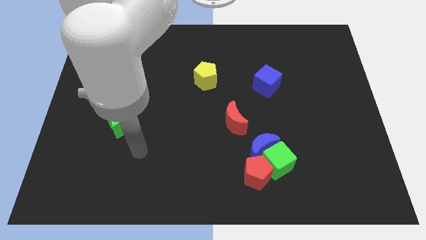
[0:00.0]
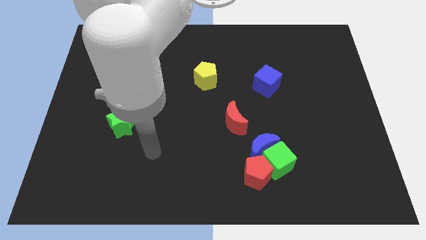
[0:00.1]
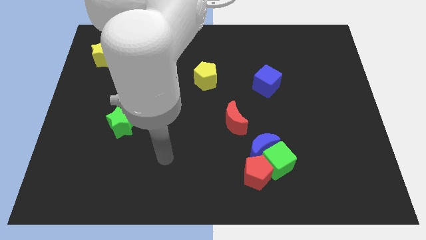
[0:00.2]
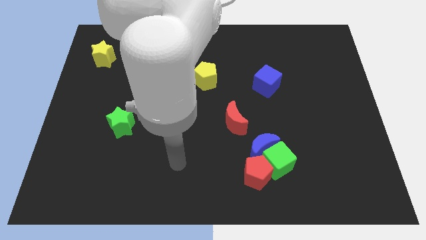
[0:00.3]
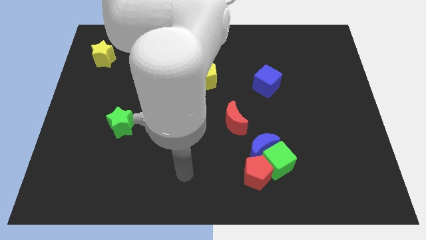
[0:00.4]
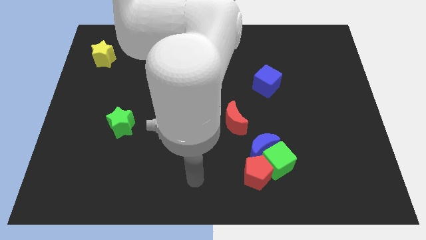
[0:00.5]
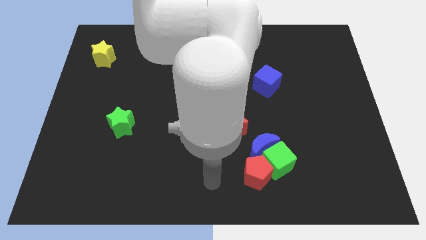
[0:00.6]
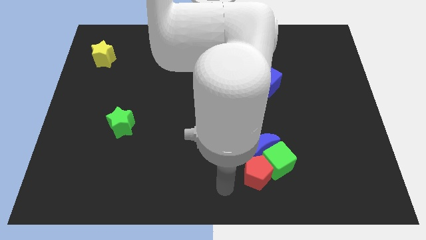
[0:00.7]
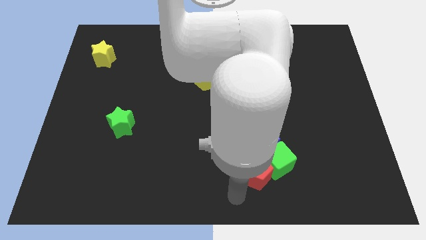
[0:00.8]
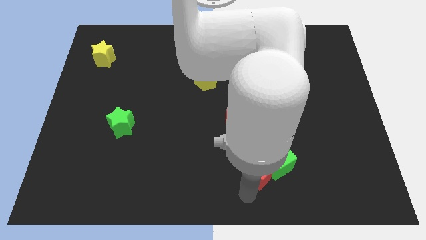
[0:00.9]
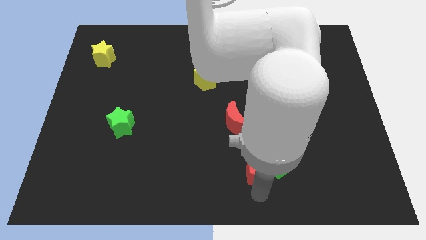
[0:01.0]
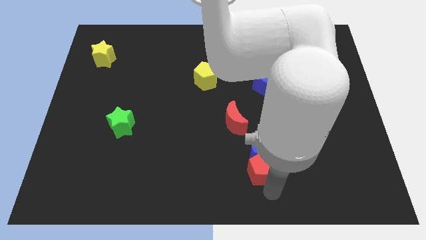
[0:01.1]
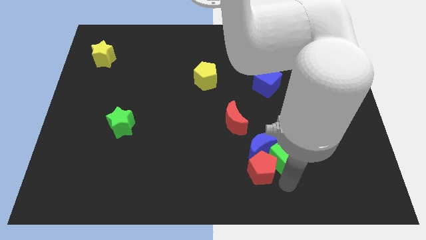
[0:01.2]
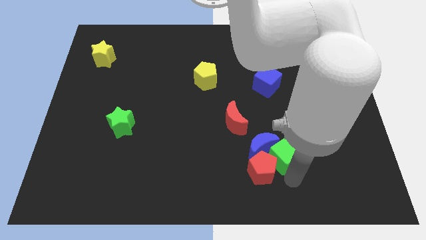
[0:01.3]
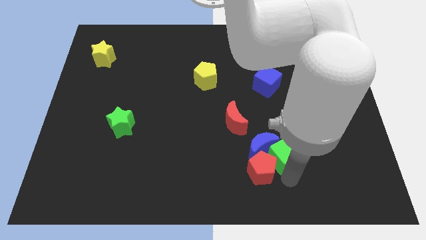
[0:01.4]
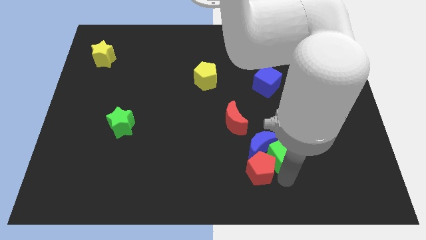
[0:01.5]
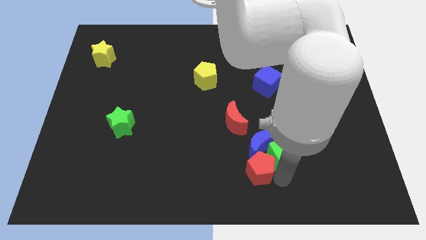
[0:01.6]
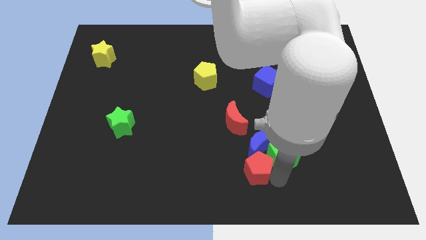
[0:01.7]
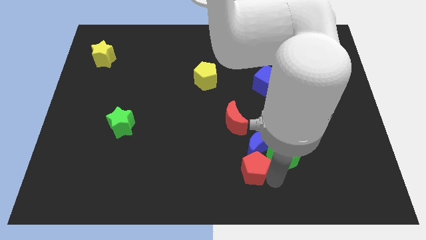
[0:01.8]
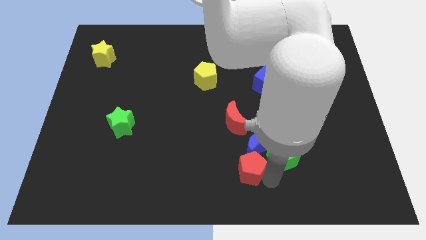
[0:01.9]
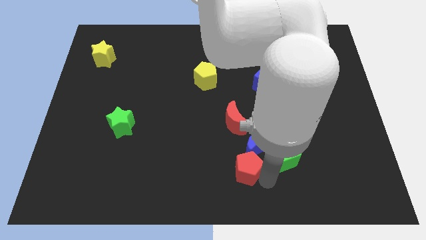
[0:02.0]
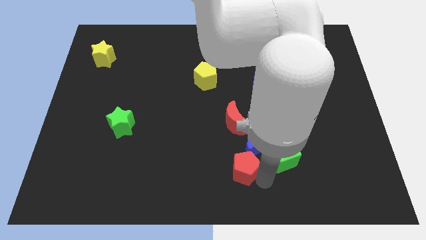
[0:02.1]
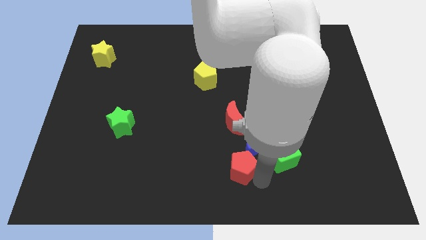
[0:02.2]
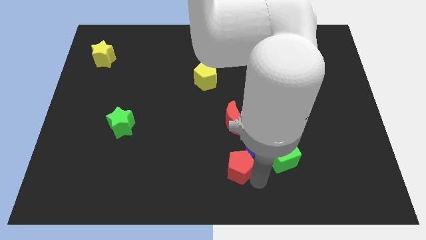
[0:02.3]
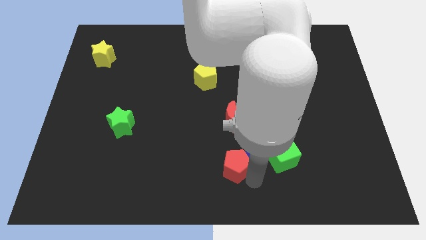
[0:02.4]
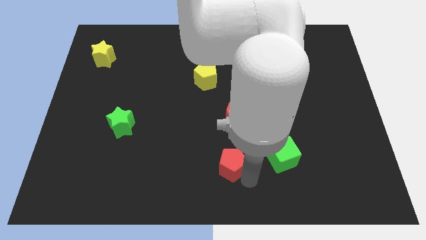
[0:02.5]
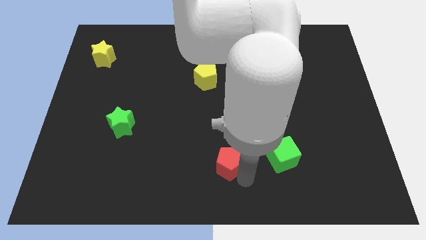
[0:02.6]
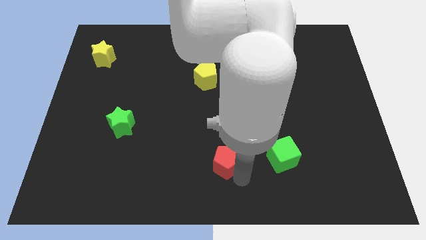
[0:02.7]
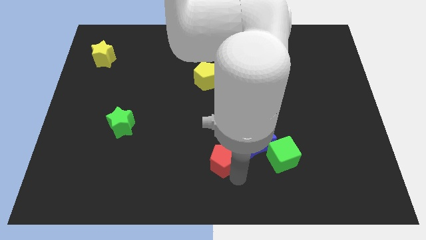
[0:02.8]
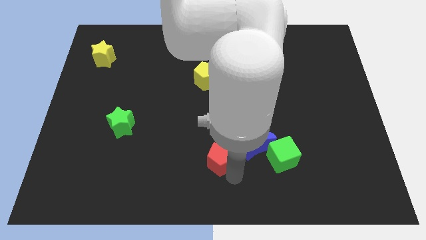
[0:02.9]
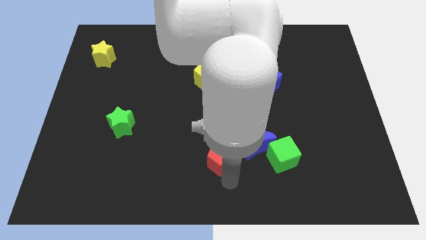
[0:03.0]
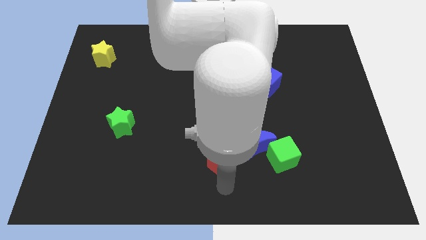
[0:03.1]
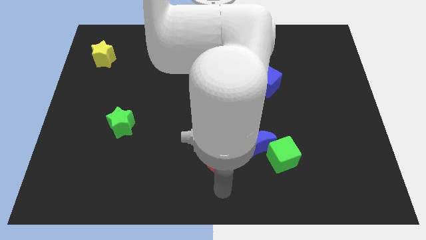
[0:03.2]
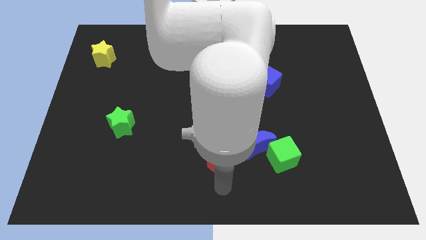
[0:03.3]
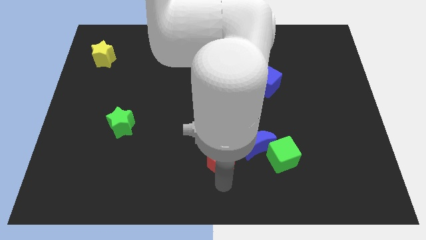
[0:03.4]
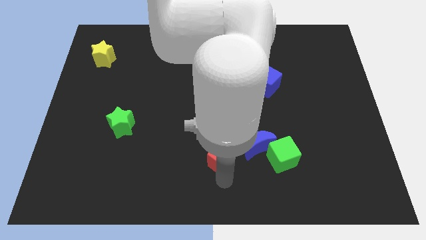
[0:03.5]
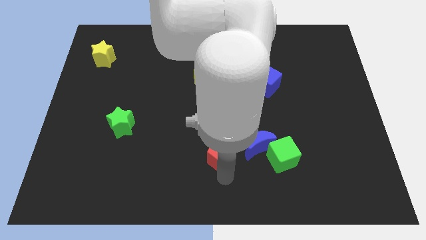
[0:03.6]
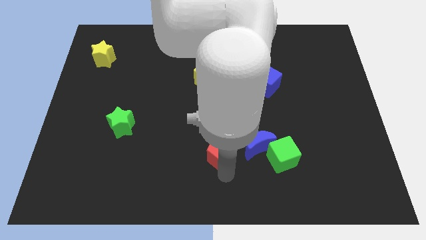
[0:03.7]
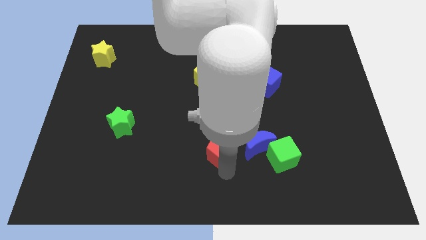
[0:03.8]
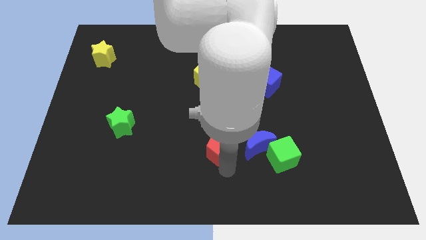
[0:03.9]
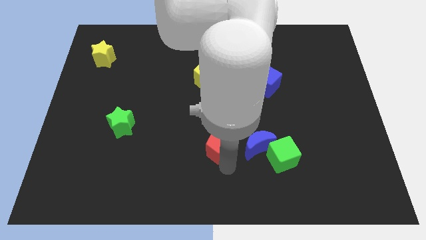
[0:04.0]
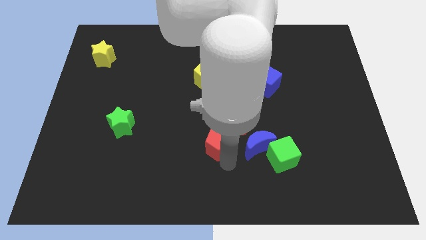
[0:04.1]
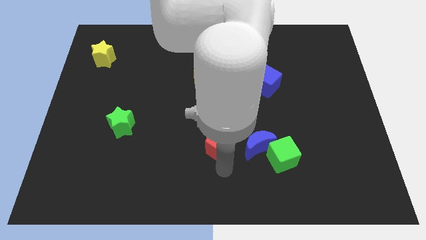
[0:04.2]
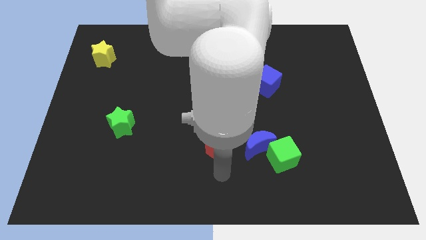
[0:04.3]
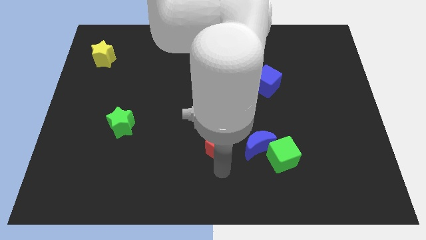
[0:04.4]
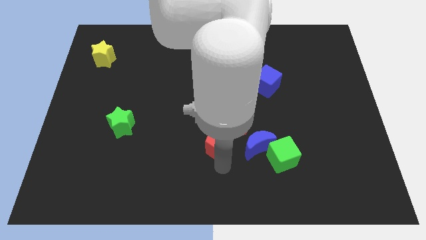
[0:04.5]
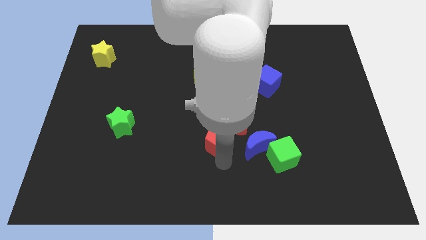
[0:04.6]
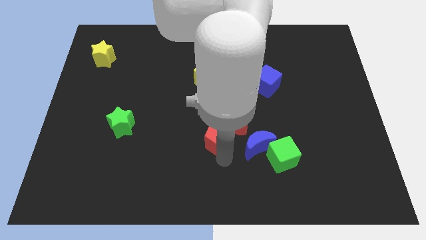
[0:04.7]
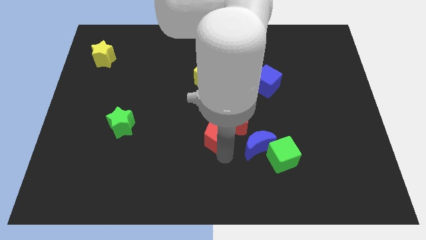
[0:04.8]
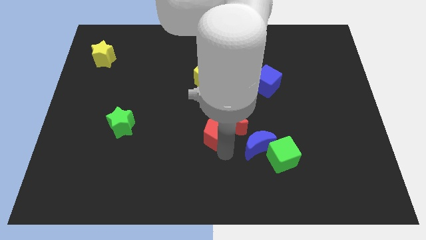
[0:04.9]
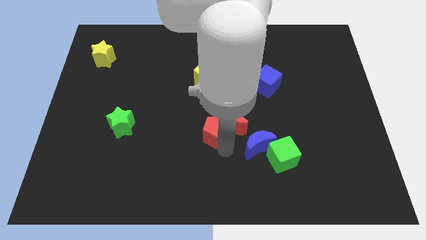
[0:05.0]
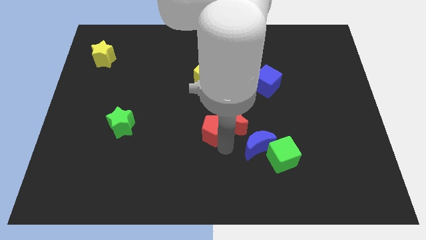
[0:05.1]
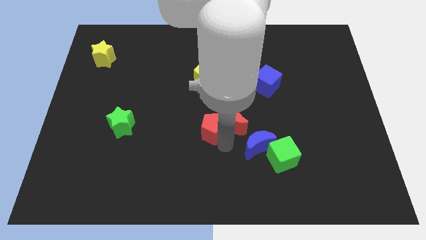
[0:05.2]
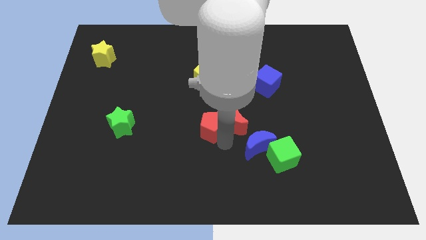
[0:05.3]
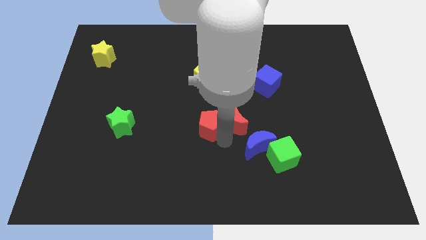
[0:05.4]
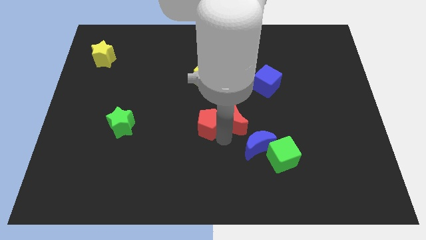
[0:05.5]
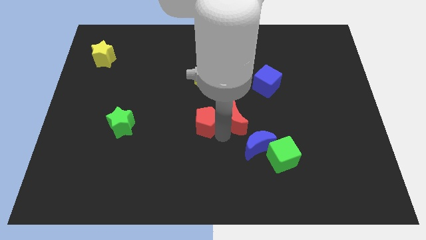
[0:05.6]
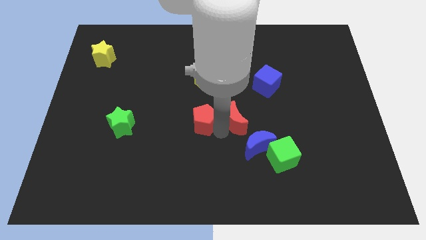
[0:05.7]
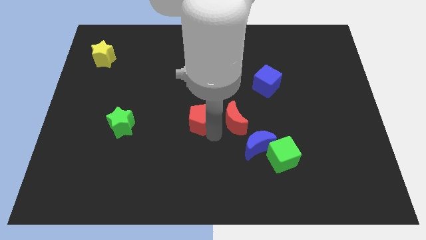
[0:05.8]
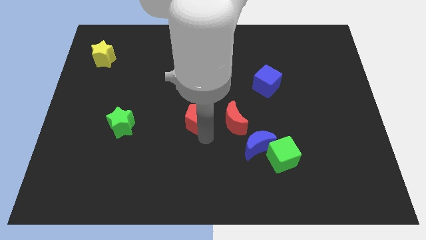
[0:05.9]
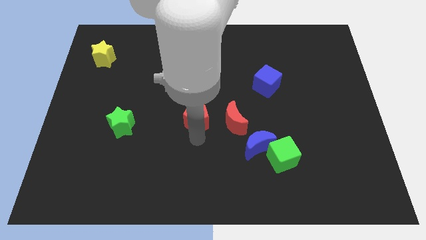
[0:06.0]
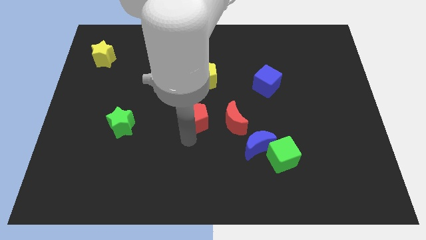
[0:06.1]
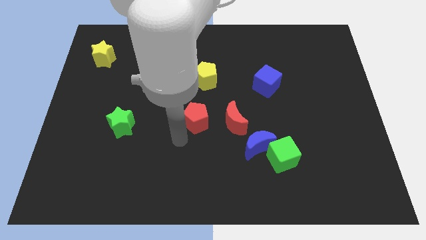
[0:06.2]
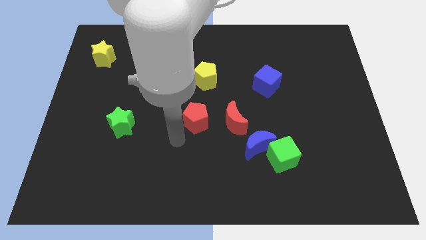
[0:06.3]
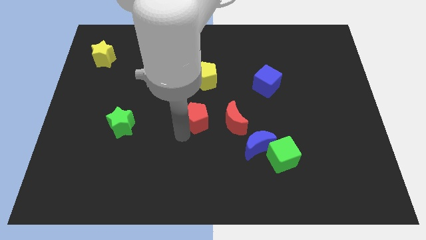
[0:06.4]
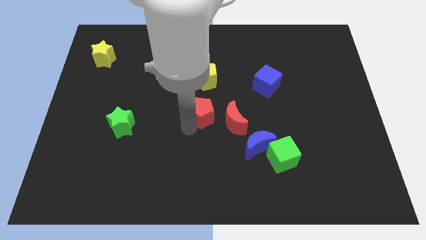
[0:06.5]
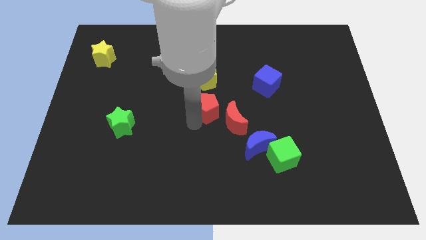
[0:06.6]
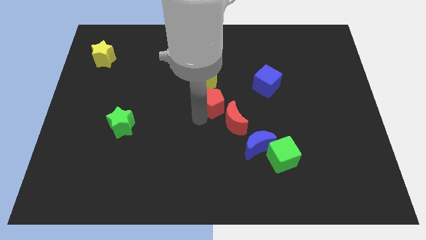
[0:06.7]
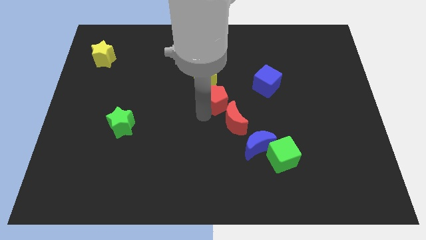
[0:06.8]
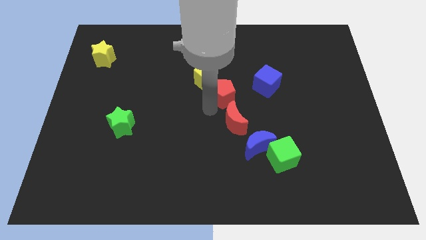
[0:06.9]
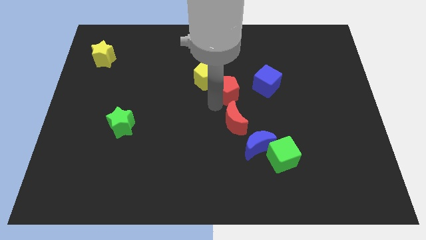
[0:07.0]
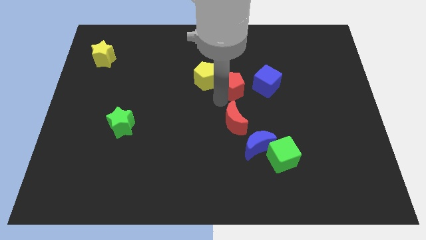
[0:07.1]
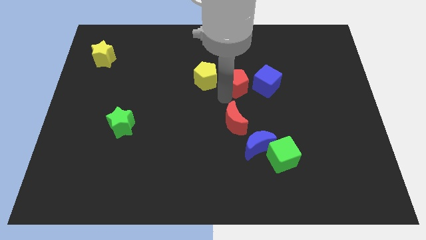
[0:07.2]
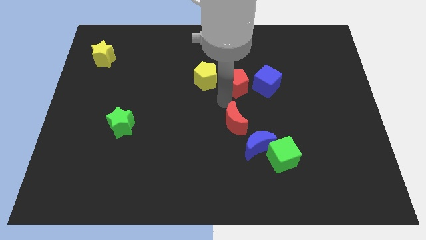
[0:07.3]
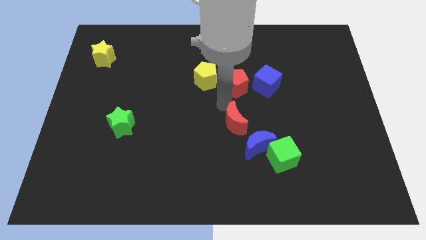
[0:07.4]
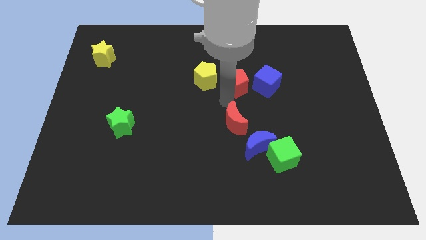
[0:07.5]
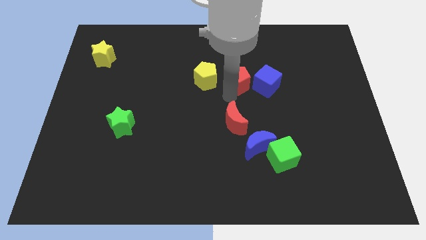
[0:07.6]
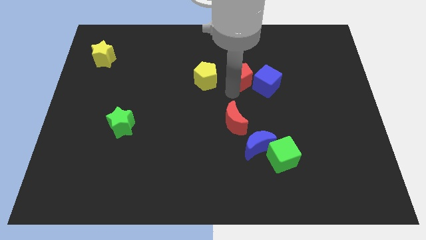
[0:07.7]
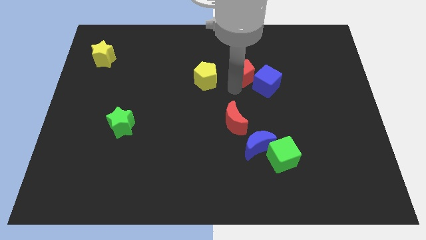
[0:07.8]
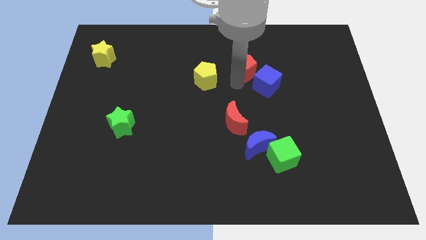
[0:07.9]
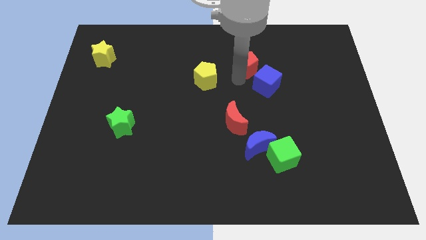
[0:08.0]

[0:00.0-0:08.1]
put the red pentagon to the top of the blue cube
